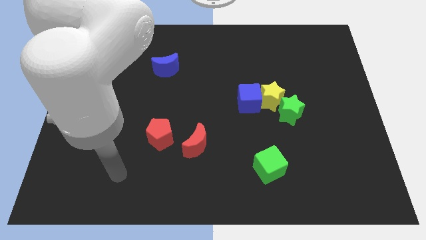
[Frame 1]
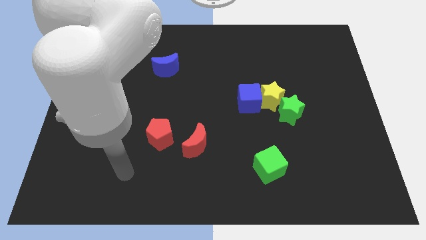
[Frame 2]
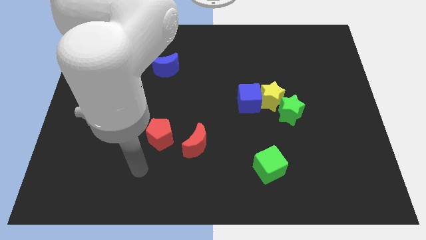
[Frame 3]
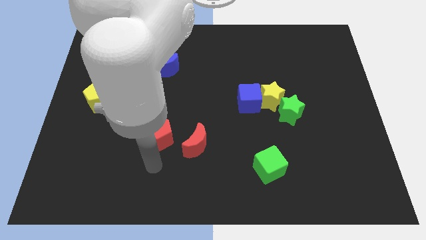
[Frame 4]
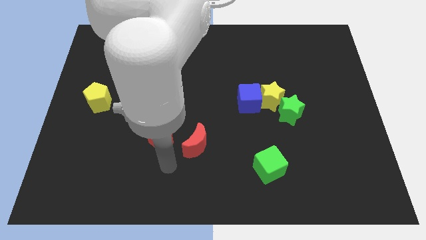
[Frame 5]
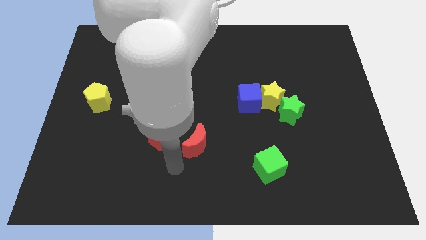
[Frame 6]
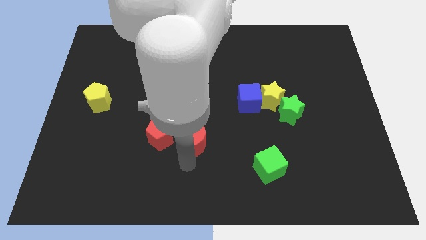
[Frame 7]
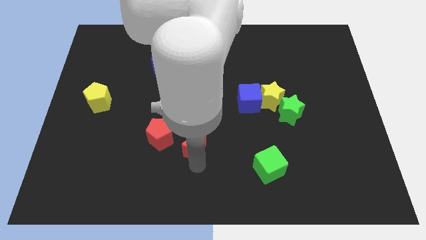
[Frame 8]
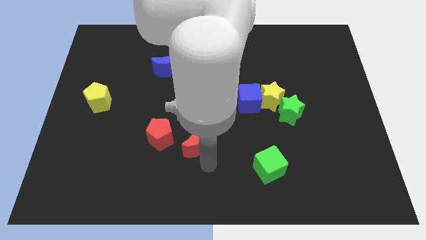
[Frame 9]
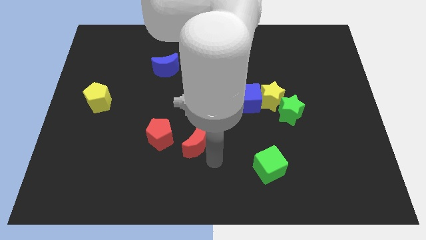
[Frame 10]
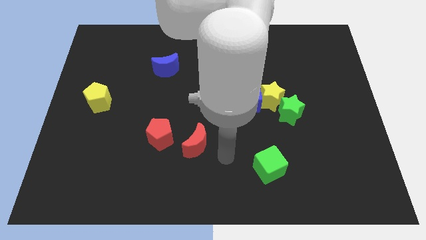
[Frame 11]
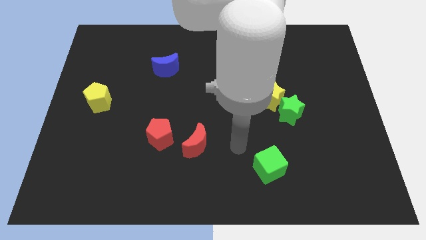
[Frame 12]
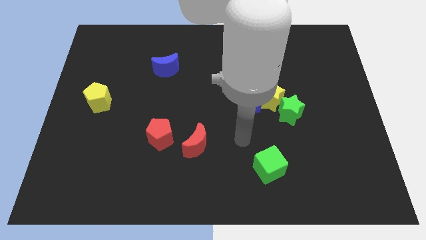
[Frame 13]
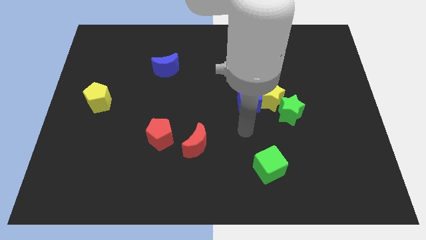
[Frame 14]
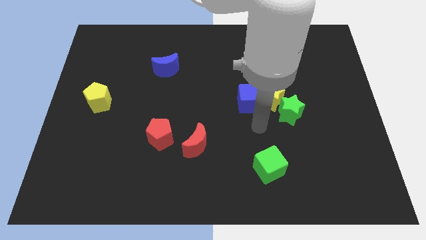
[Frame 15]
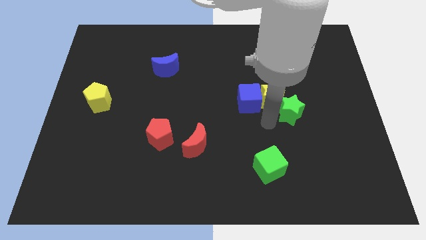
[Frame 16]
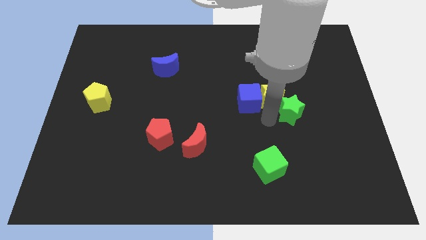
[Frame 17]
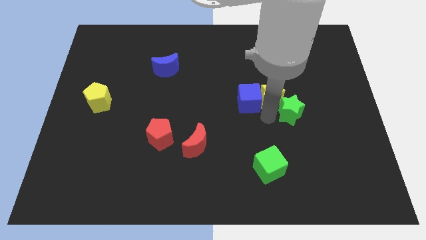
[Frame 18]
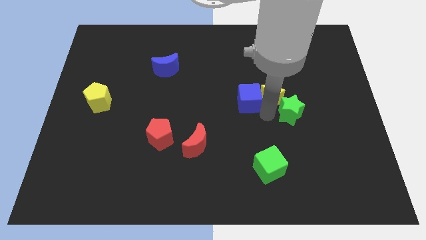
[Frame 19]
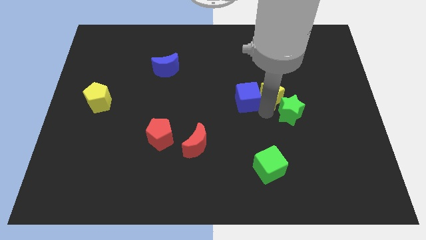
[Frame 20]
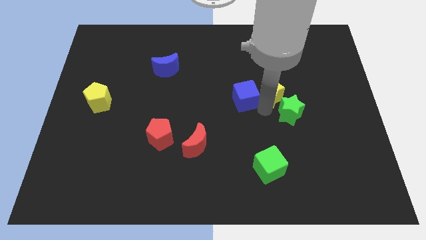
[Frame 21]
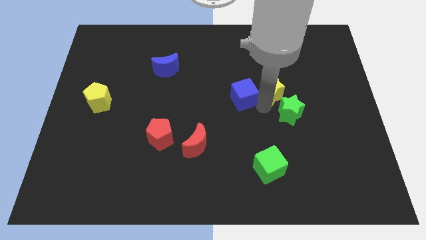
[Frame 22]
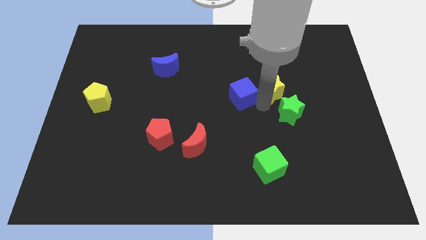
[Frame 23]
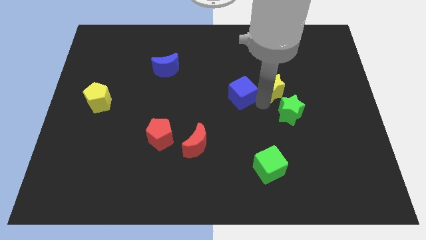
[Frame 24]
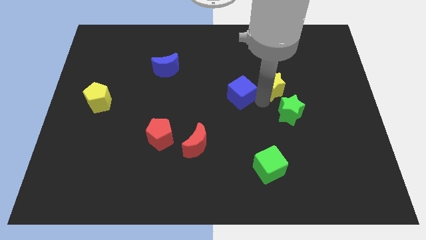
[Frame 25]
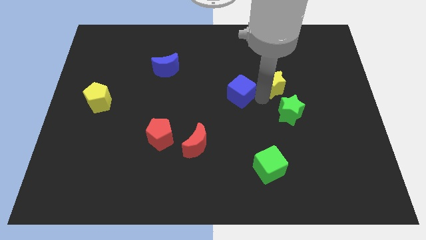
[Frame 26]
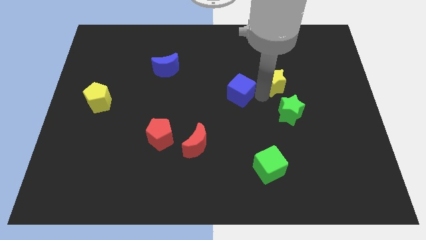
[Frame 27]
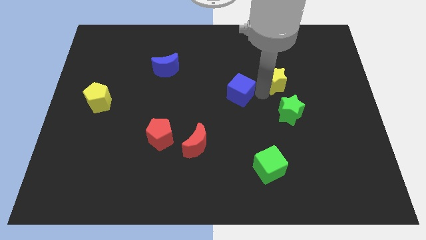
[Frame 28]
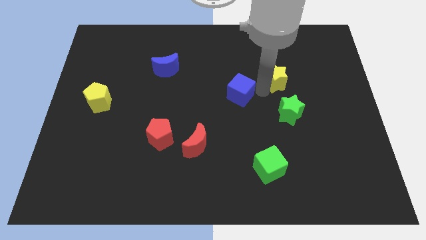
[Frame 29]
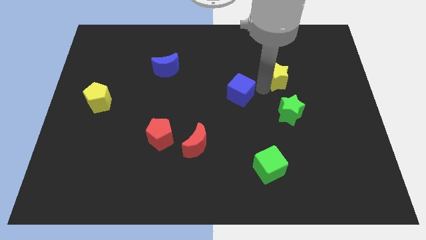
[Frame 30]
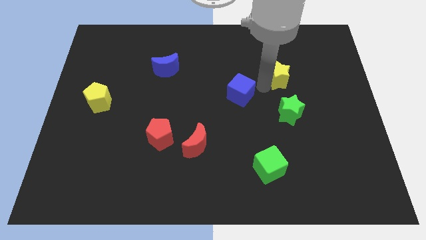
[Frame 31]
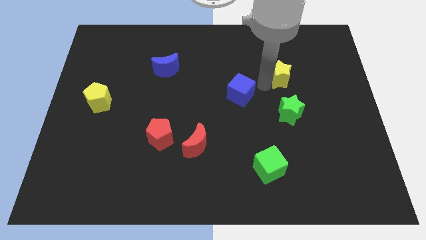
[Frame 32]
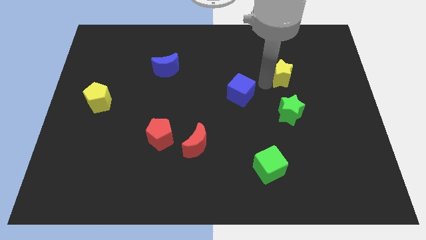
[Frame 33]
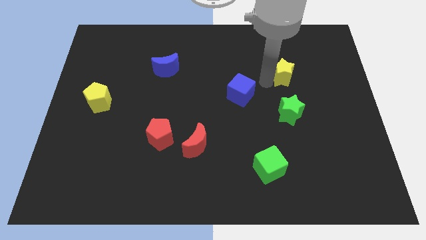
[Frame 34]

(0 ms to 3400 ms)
pull the yellow star apart from the blue cube and green star

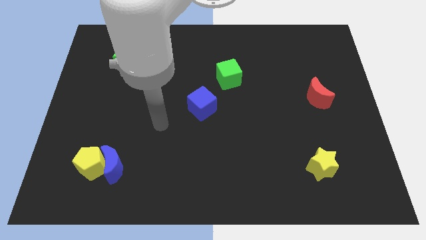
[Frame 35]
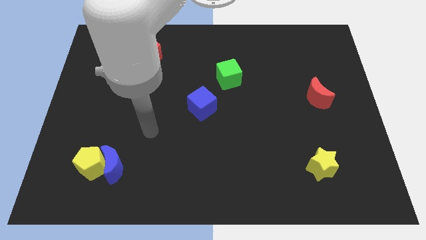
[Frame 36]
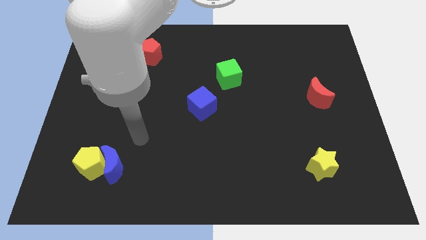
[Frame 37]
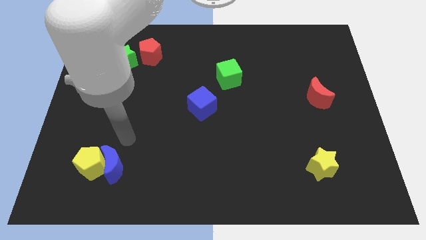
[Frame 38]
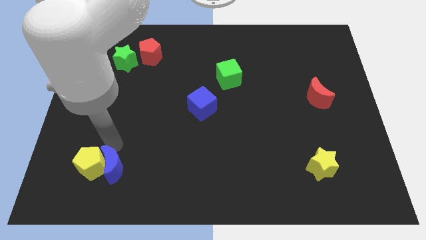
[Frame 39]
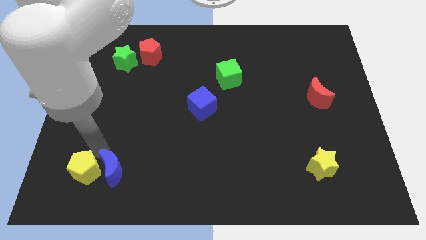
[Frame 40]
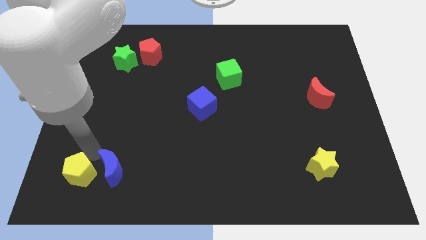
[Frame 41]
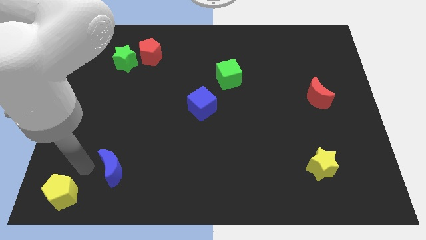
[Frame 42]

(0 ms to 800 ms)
separate the blue moon from the yellow pentagon

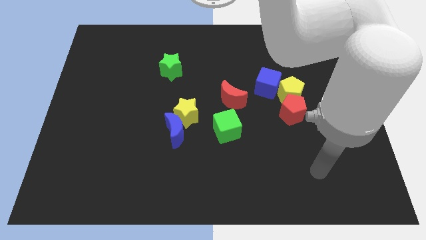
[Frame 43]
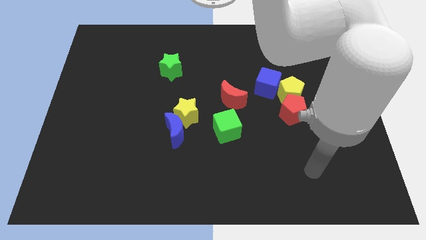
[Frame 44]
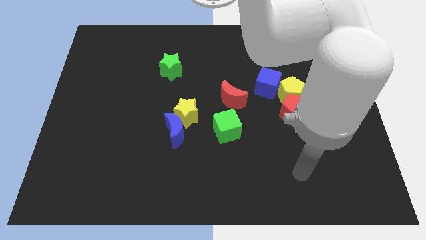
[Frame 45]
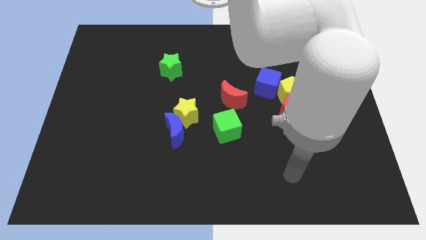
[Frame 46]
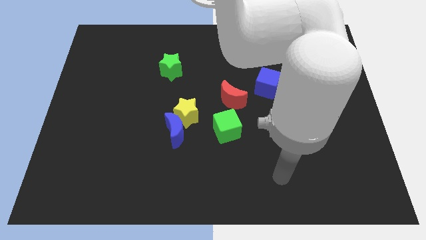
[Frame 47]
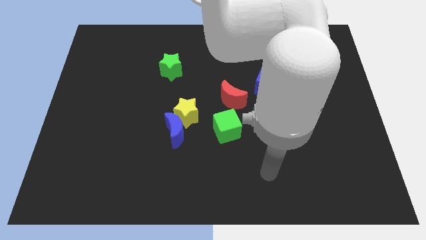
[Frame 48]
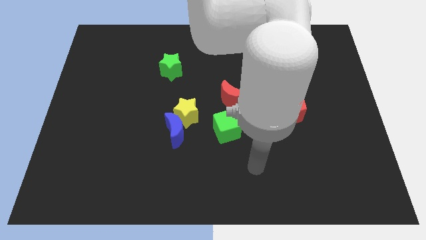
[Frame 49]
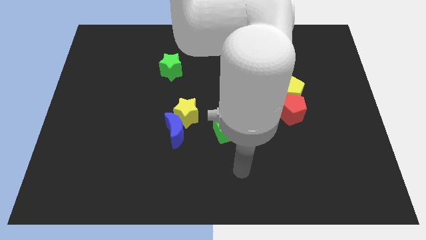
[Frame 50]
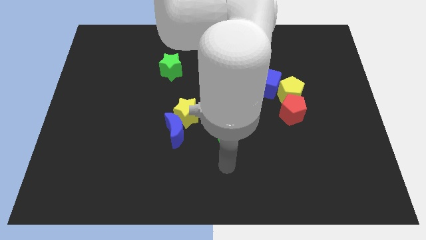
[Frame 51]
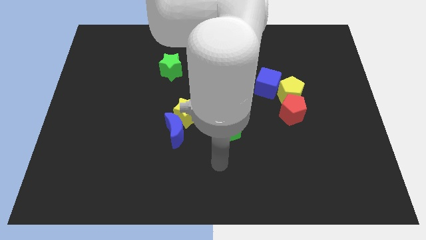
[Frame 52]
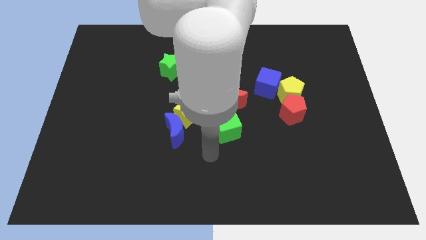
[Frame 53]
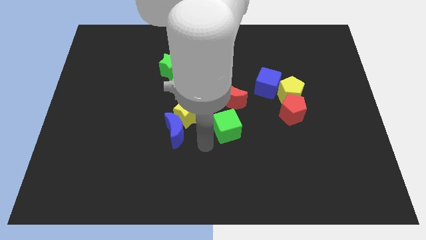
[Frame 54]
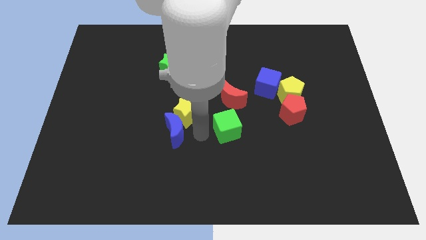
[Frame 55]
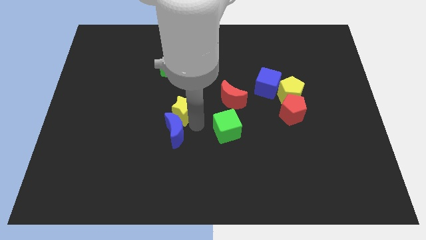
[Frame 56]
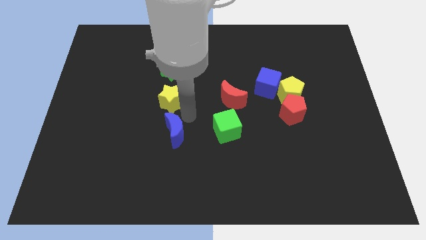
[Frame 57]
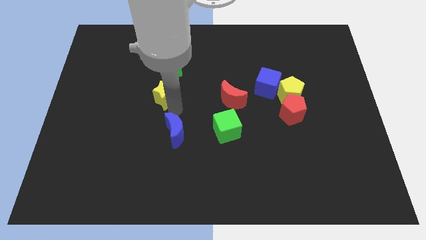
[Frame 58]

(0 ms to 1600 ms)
move the blue moon away from the yellow star

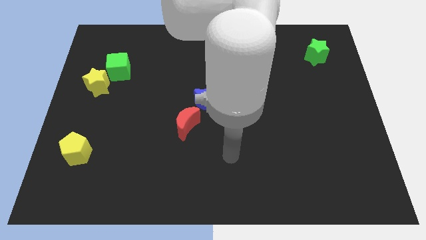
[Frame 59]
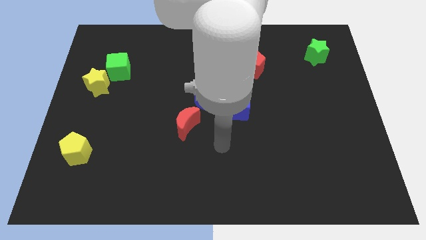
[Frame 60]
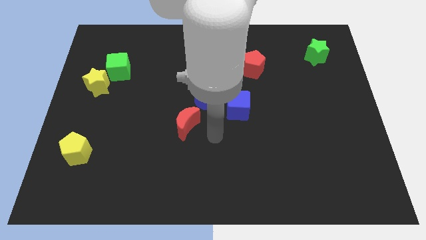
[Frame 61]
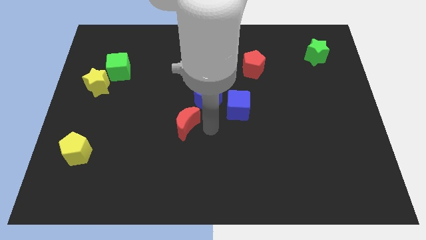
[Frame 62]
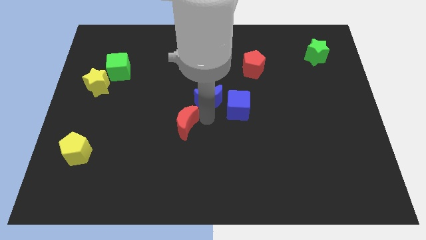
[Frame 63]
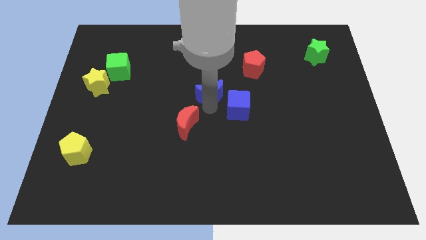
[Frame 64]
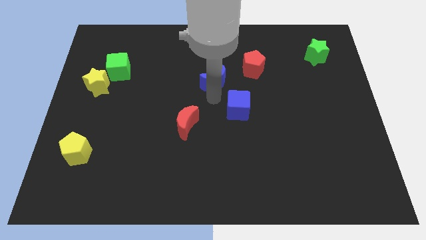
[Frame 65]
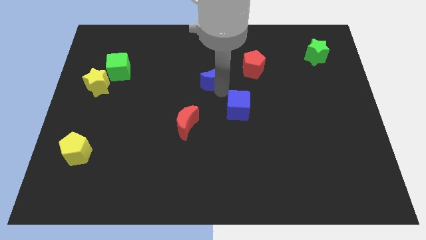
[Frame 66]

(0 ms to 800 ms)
separate the blue cube from the blue moon

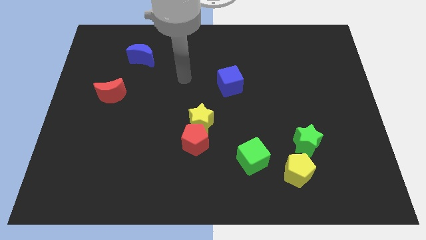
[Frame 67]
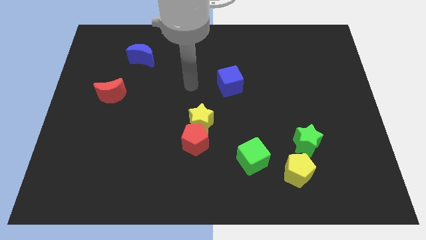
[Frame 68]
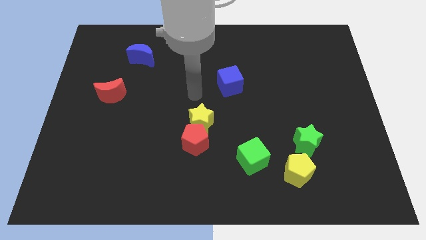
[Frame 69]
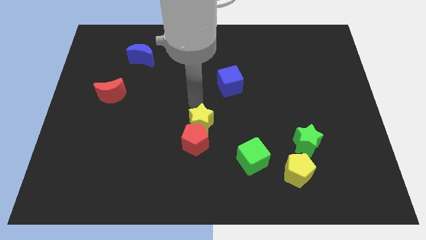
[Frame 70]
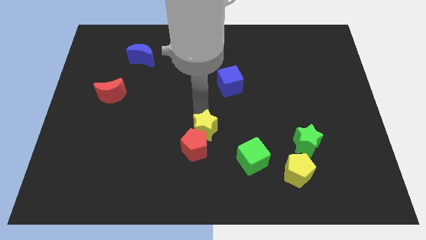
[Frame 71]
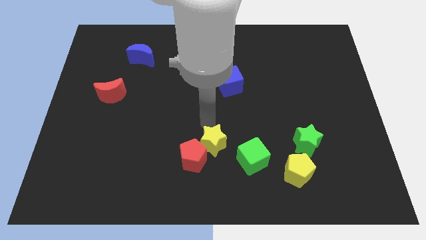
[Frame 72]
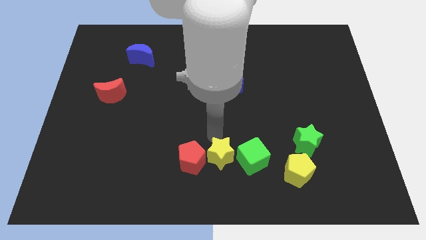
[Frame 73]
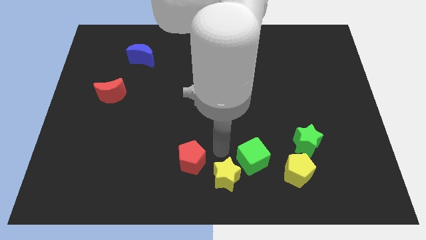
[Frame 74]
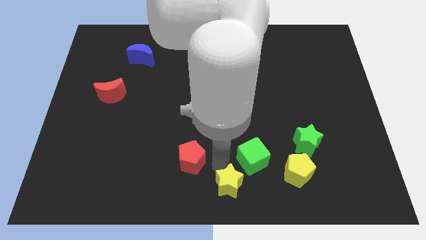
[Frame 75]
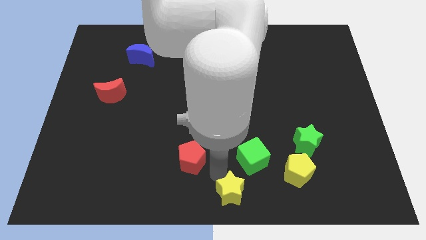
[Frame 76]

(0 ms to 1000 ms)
separate the red pentagon from the yellow star

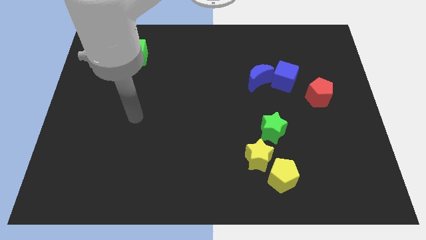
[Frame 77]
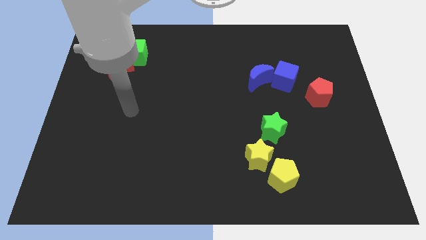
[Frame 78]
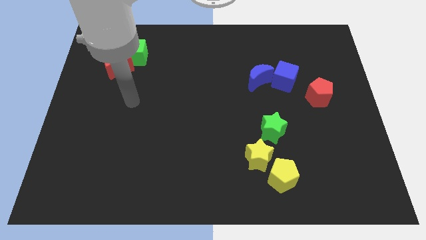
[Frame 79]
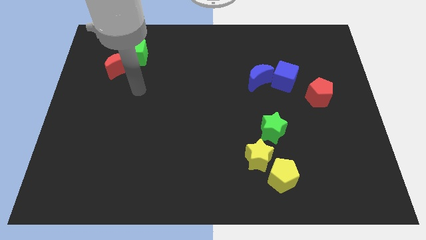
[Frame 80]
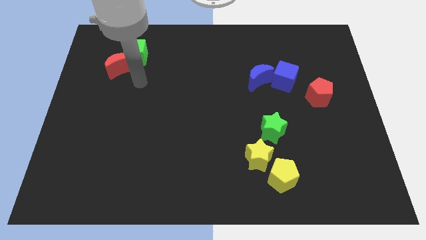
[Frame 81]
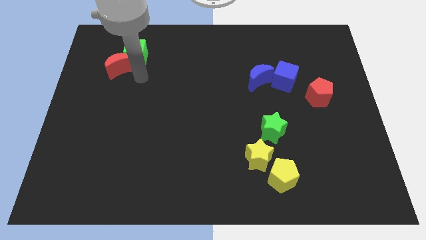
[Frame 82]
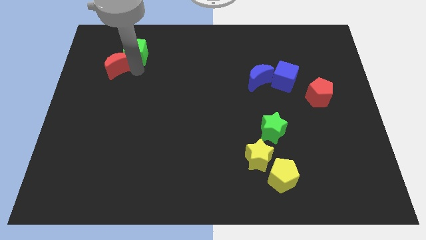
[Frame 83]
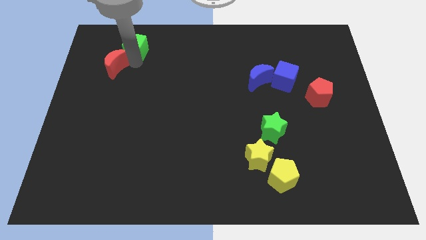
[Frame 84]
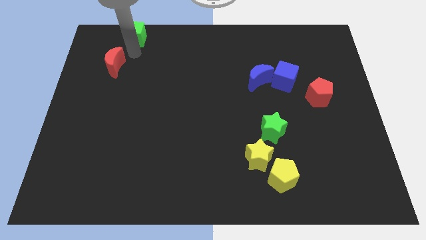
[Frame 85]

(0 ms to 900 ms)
pull the red moon apart from the green cube

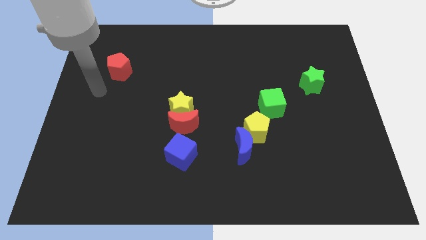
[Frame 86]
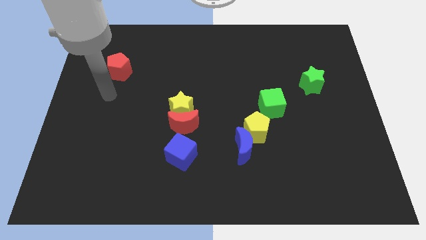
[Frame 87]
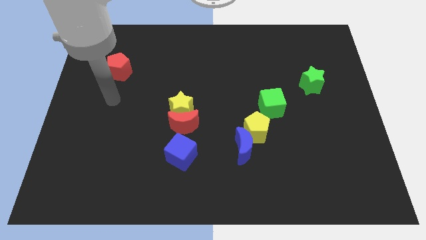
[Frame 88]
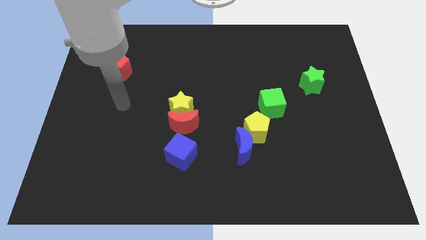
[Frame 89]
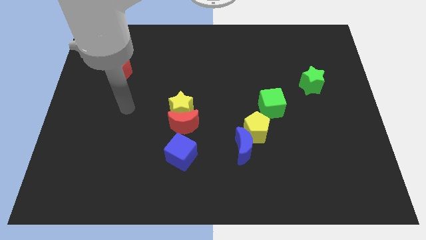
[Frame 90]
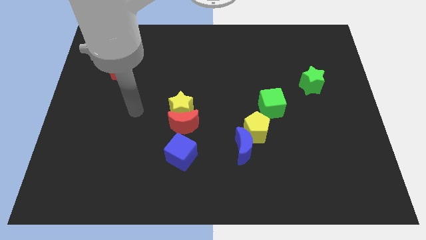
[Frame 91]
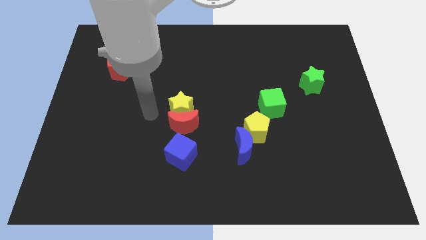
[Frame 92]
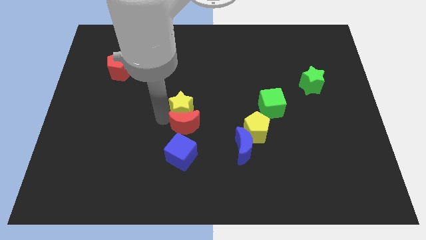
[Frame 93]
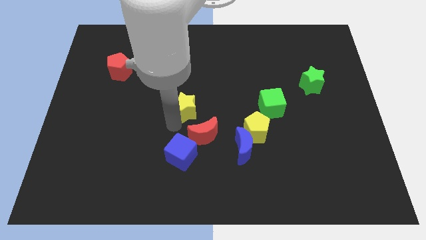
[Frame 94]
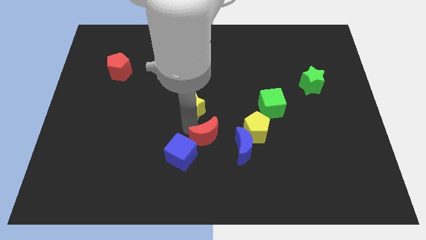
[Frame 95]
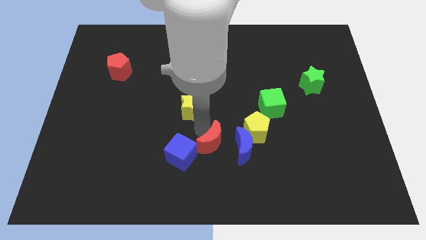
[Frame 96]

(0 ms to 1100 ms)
pull the yellow star apart from the red moon
